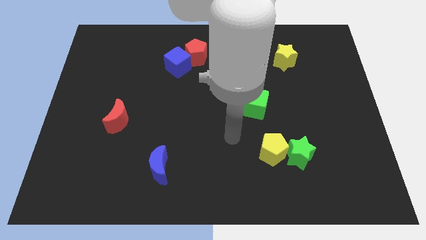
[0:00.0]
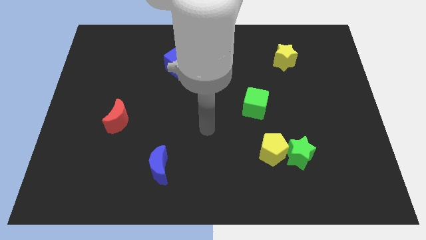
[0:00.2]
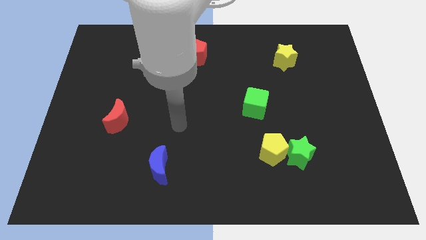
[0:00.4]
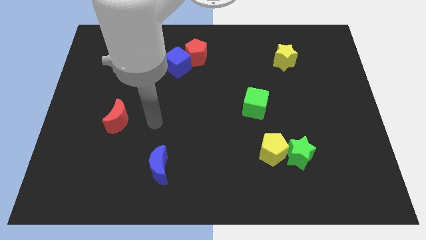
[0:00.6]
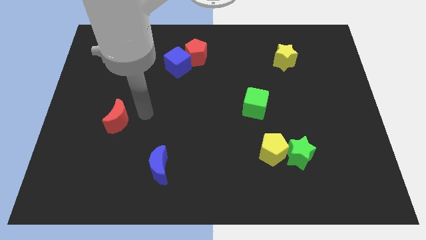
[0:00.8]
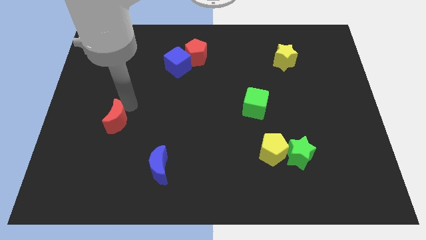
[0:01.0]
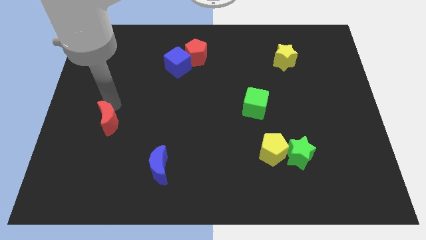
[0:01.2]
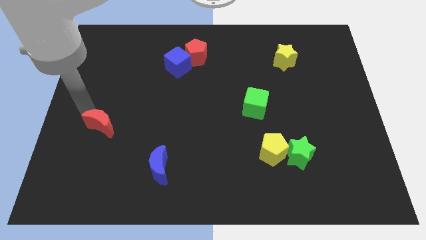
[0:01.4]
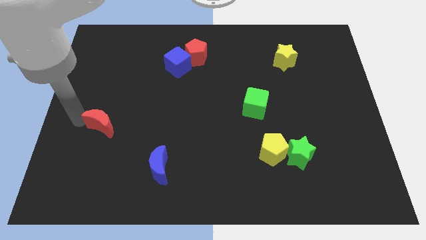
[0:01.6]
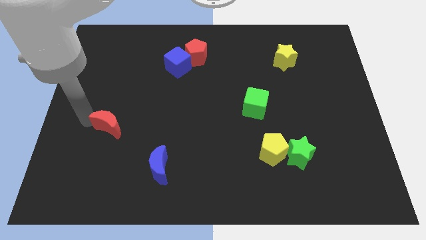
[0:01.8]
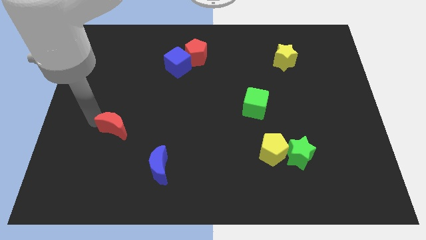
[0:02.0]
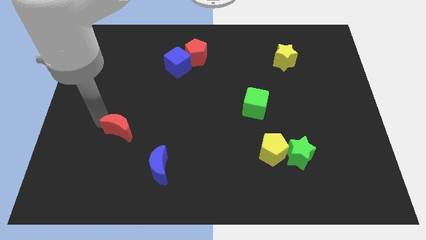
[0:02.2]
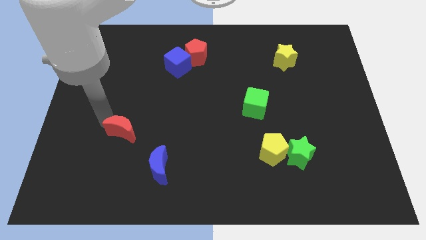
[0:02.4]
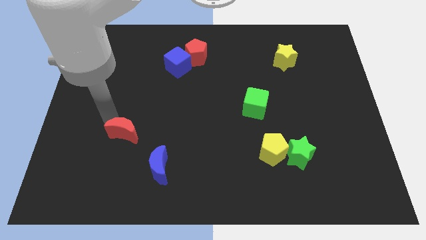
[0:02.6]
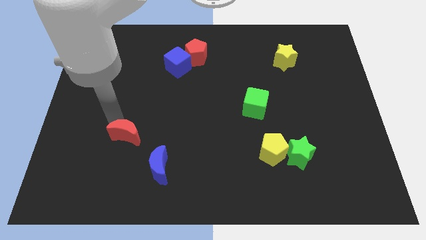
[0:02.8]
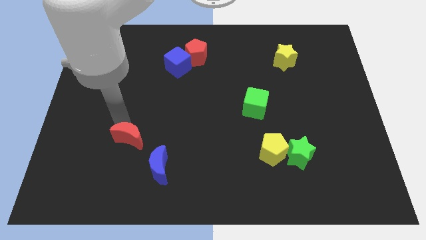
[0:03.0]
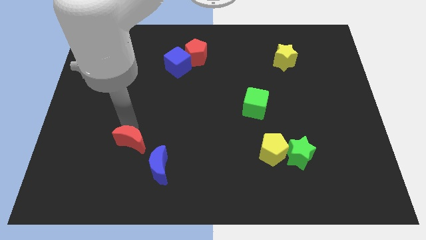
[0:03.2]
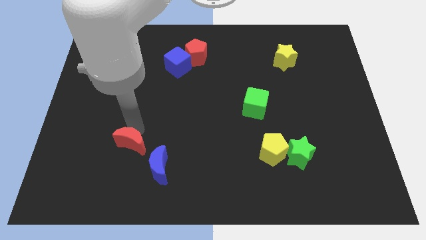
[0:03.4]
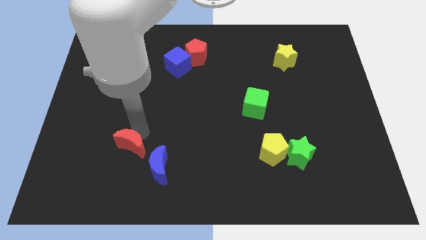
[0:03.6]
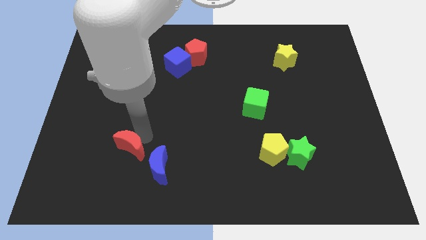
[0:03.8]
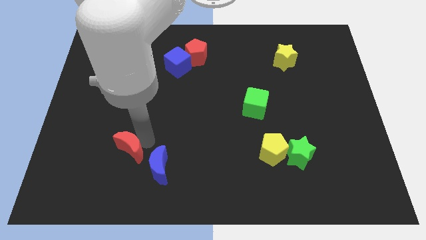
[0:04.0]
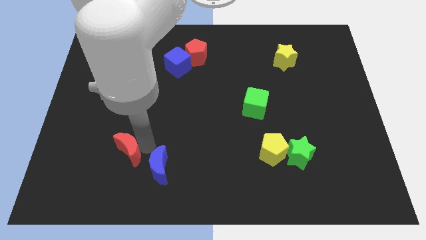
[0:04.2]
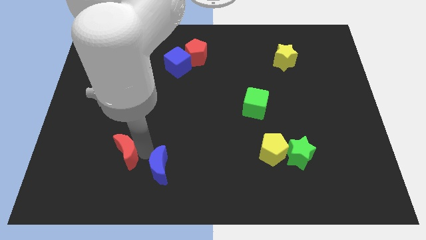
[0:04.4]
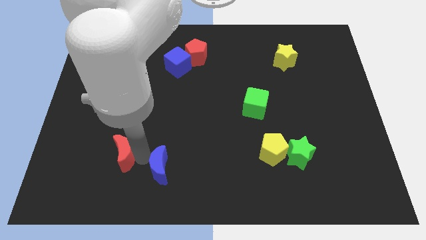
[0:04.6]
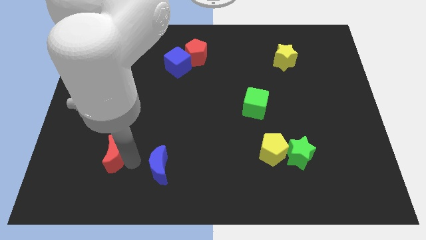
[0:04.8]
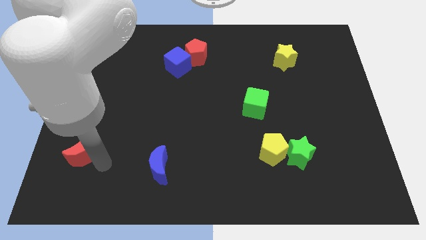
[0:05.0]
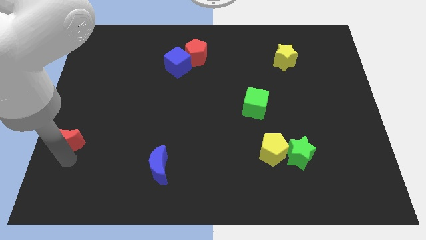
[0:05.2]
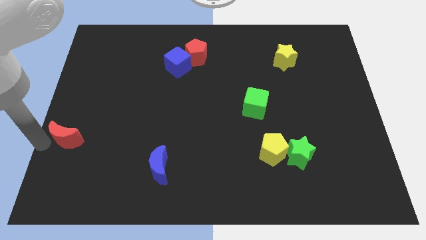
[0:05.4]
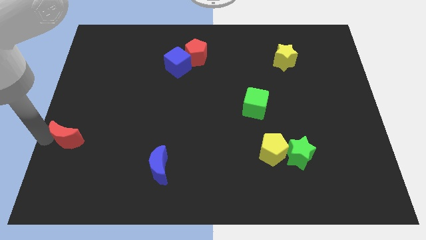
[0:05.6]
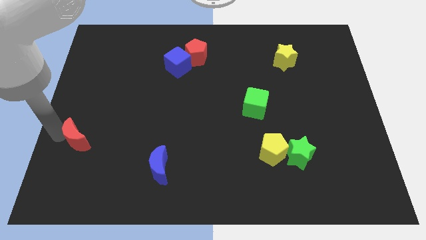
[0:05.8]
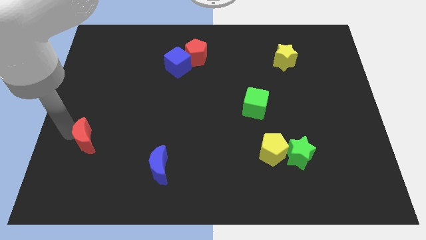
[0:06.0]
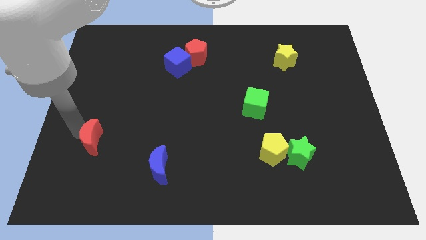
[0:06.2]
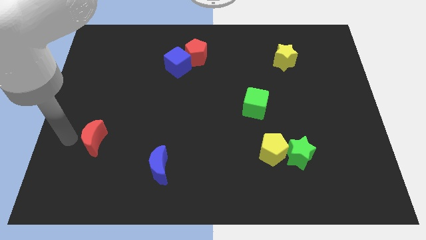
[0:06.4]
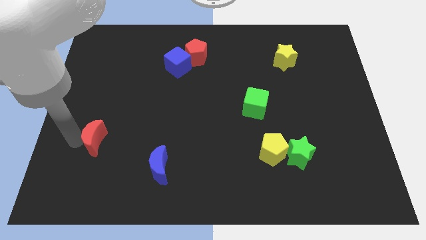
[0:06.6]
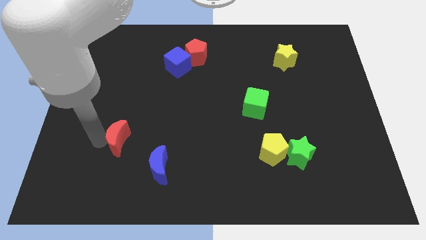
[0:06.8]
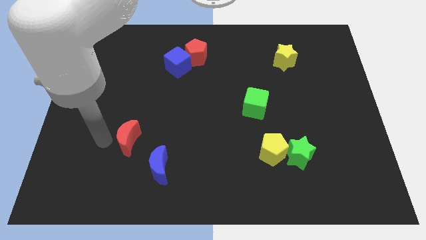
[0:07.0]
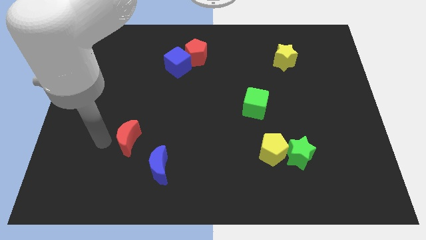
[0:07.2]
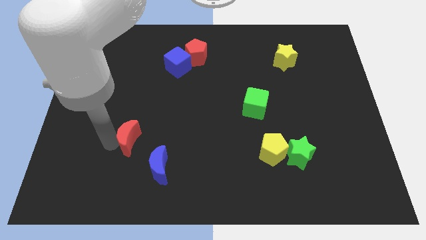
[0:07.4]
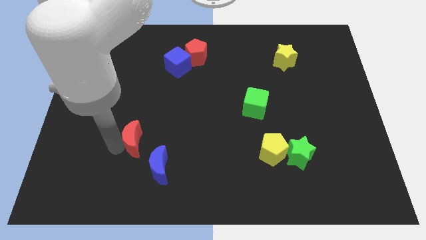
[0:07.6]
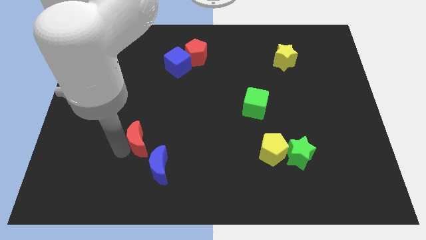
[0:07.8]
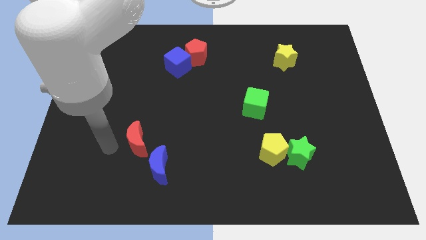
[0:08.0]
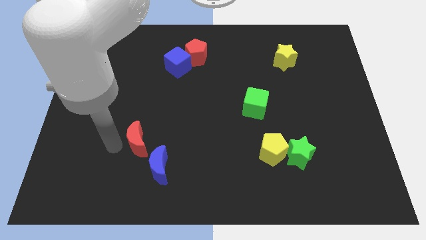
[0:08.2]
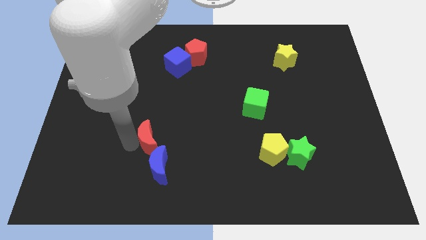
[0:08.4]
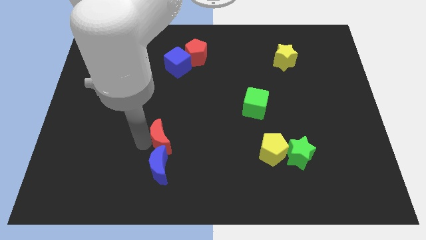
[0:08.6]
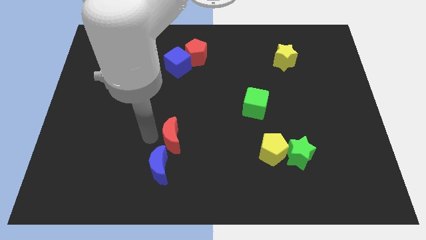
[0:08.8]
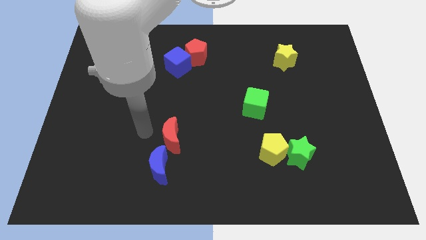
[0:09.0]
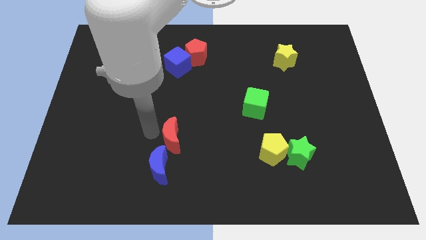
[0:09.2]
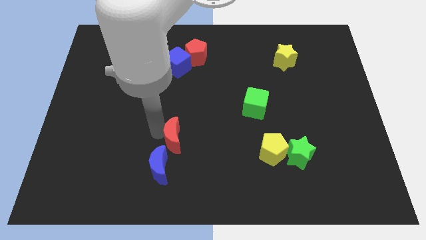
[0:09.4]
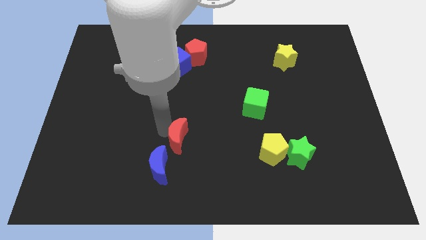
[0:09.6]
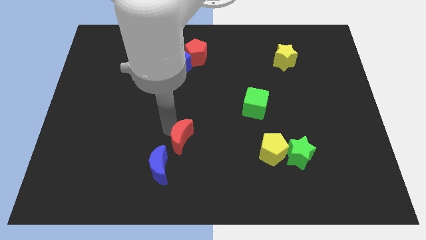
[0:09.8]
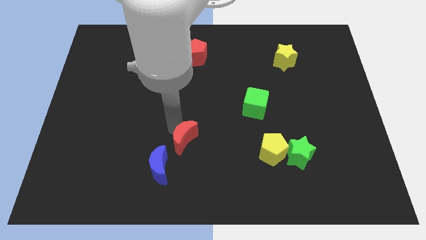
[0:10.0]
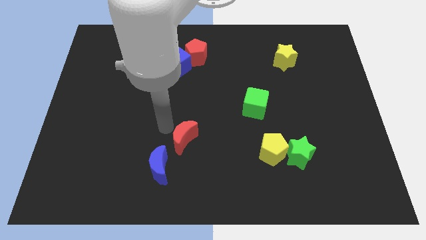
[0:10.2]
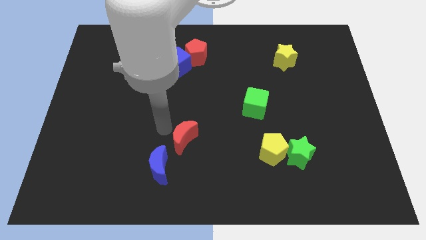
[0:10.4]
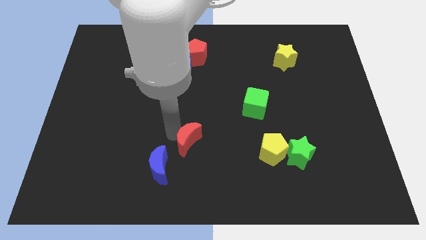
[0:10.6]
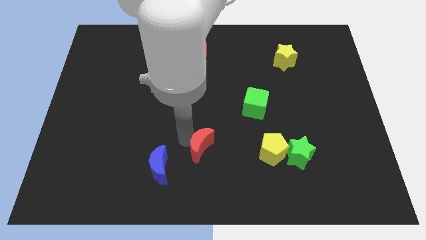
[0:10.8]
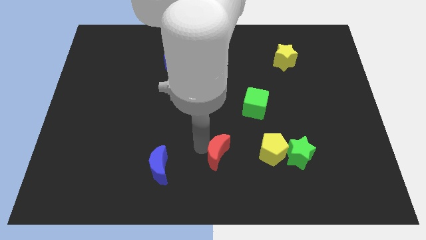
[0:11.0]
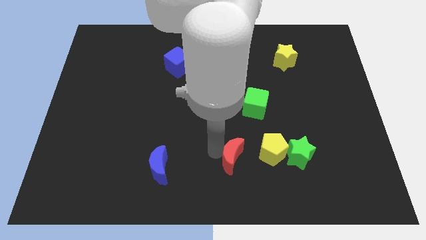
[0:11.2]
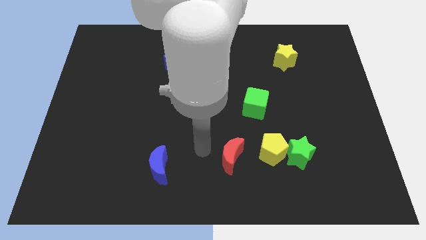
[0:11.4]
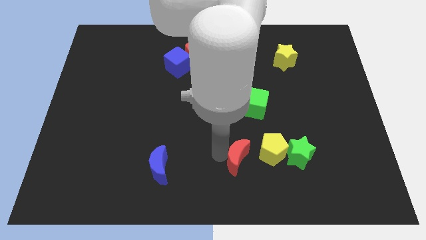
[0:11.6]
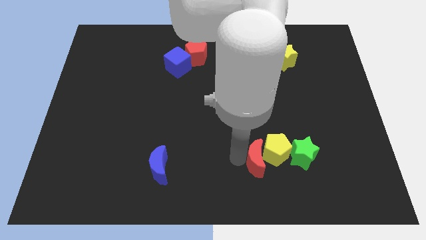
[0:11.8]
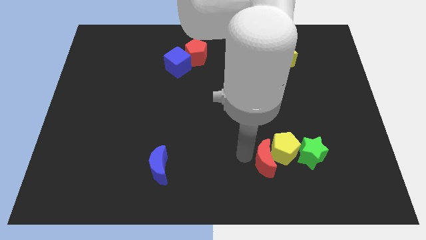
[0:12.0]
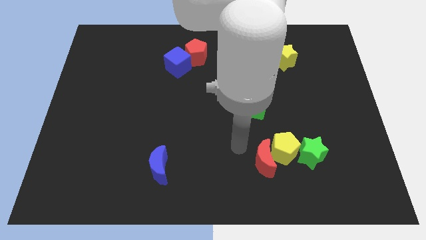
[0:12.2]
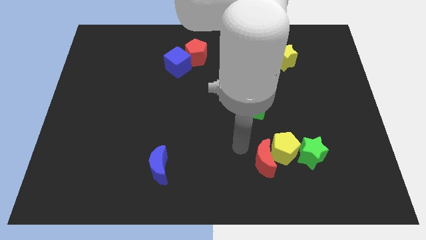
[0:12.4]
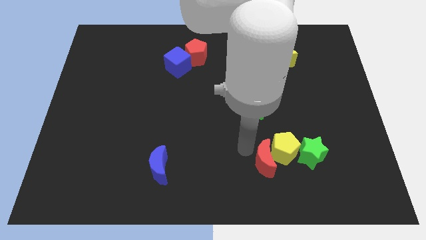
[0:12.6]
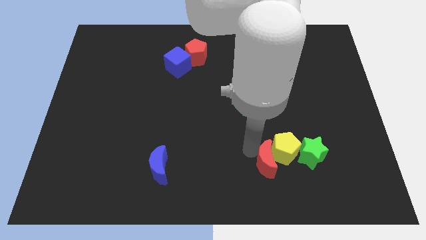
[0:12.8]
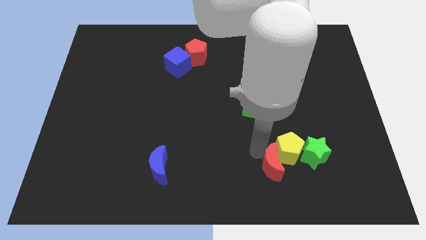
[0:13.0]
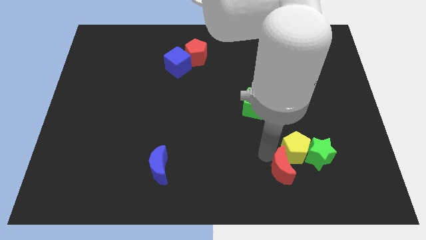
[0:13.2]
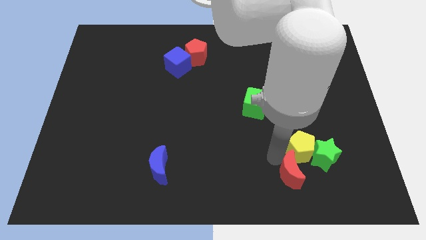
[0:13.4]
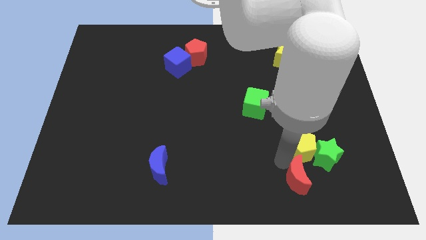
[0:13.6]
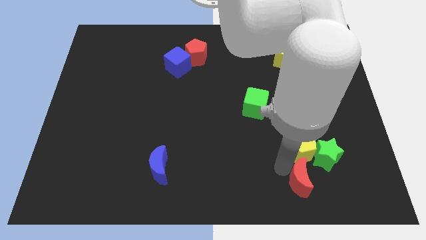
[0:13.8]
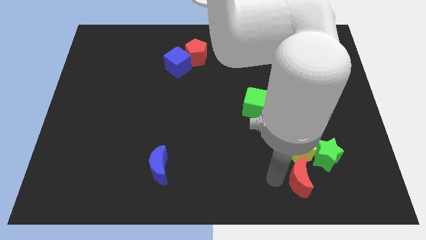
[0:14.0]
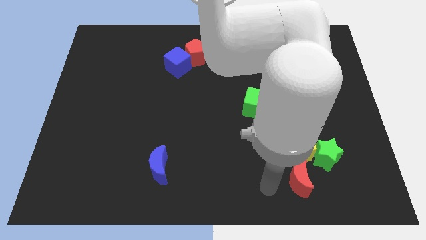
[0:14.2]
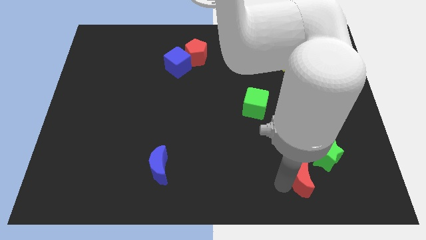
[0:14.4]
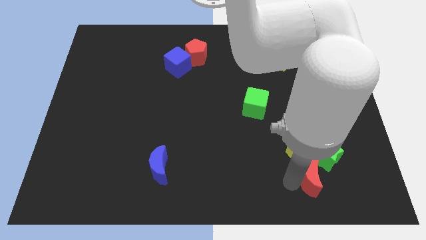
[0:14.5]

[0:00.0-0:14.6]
put the red moon to the bottom right side of the yellow pentagon
